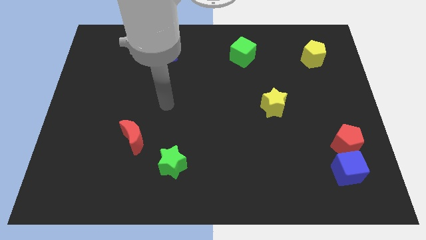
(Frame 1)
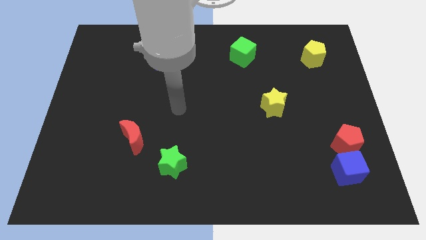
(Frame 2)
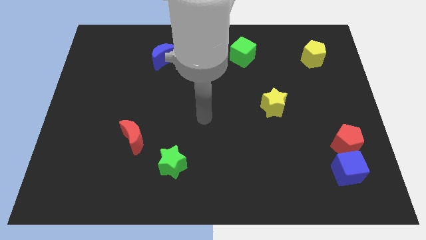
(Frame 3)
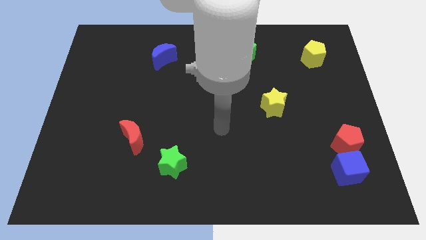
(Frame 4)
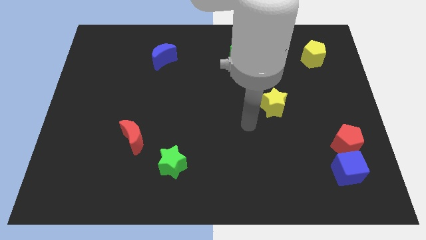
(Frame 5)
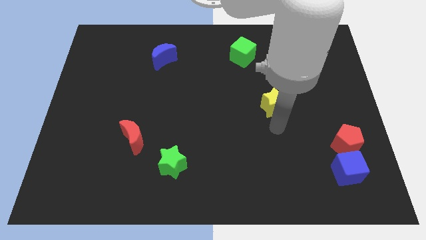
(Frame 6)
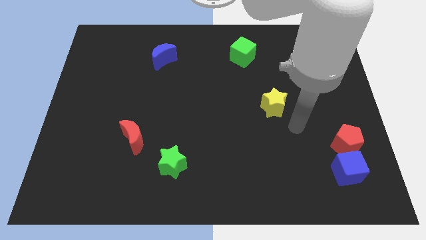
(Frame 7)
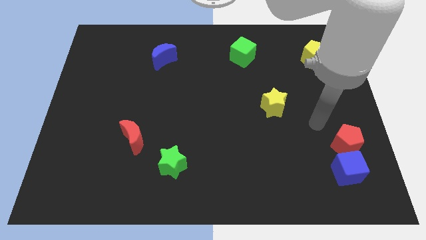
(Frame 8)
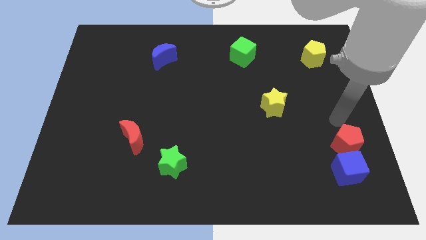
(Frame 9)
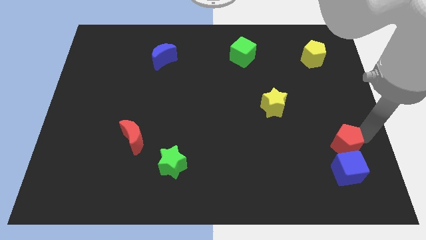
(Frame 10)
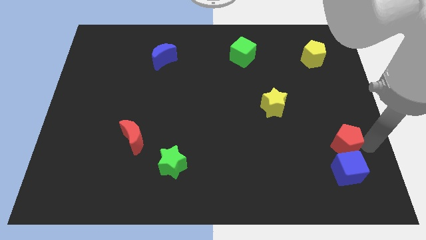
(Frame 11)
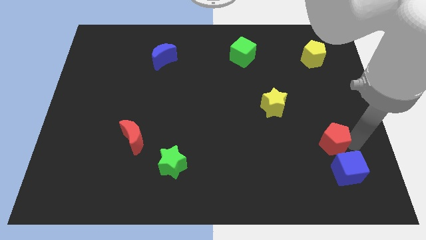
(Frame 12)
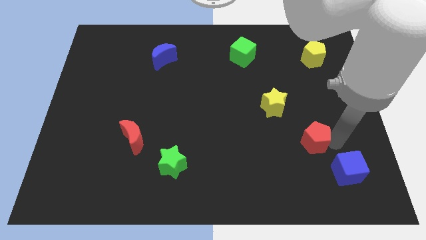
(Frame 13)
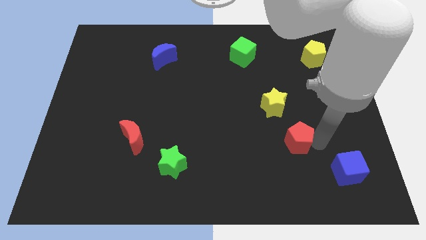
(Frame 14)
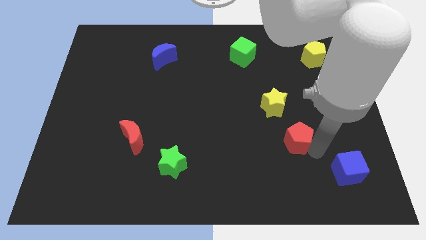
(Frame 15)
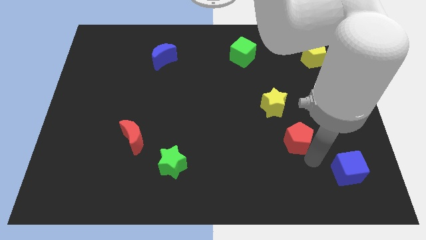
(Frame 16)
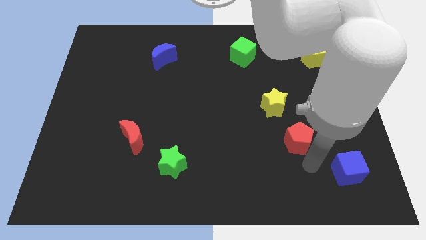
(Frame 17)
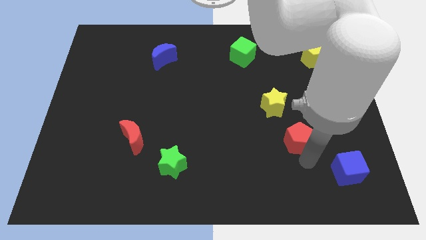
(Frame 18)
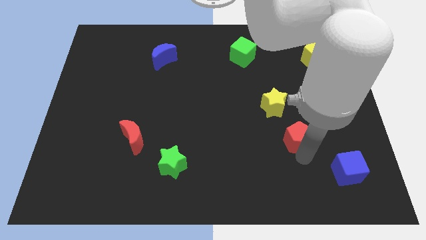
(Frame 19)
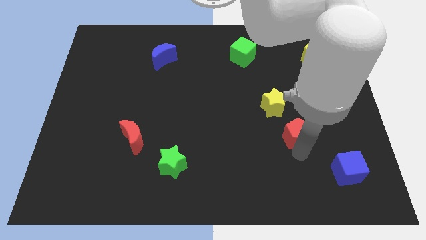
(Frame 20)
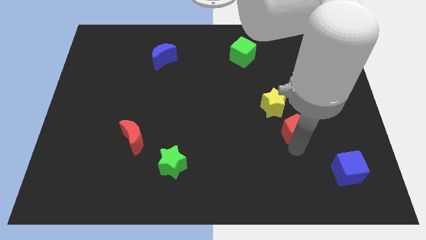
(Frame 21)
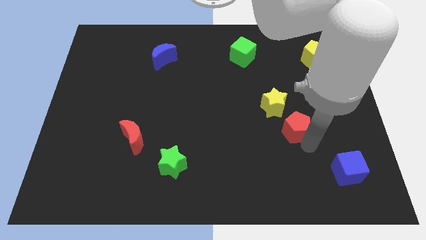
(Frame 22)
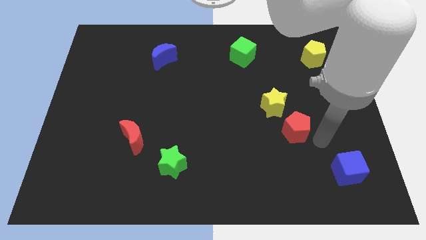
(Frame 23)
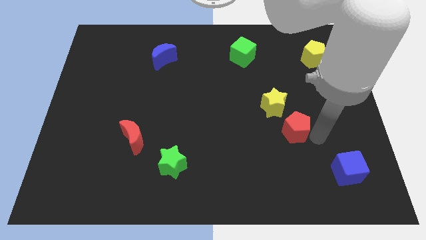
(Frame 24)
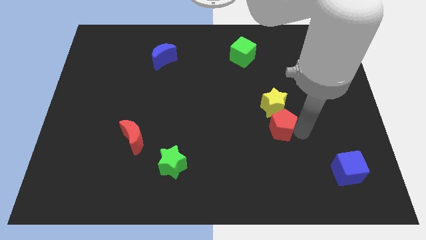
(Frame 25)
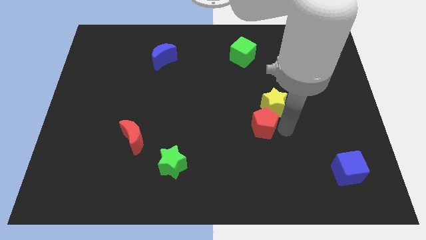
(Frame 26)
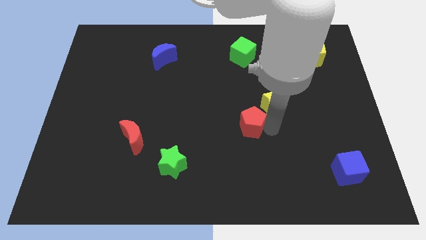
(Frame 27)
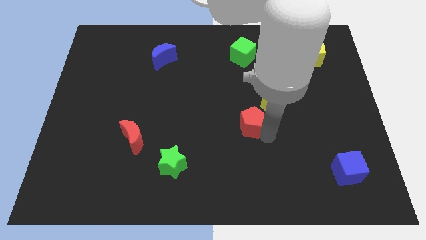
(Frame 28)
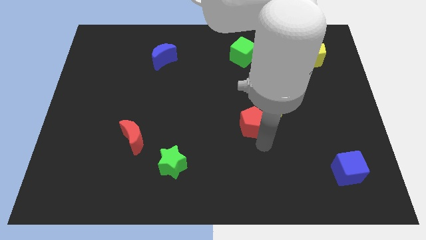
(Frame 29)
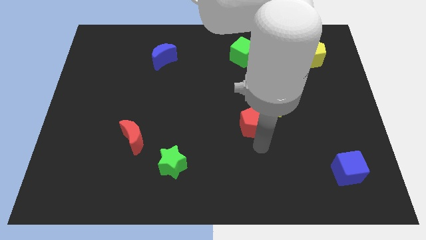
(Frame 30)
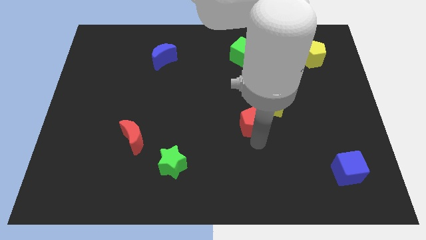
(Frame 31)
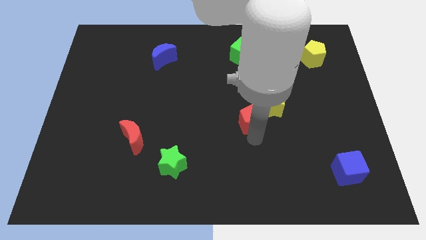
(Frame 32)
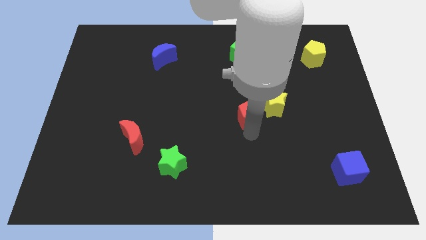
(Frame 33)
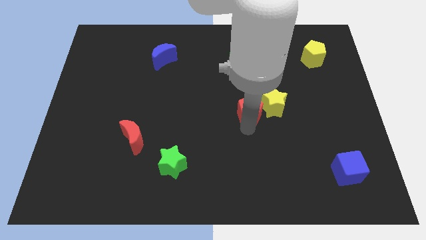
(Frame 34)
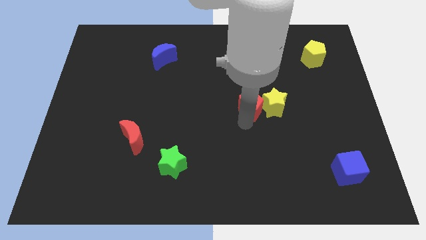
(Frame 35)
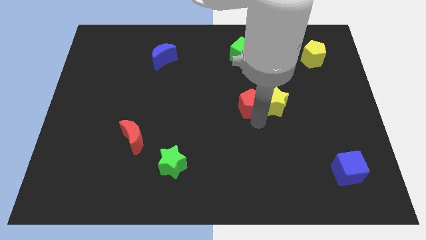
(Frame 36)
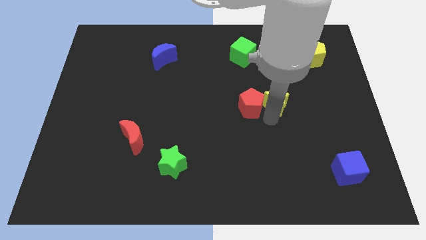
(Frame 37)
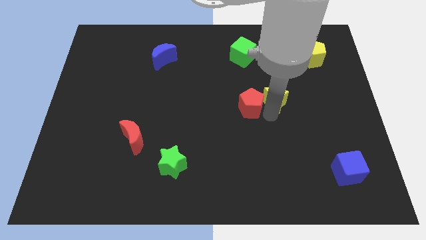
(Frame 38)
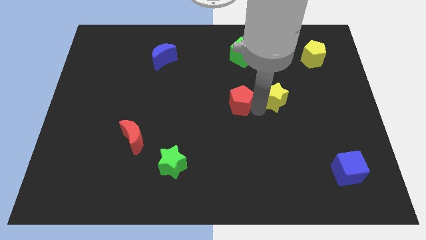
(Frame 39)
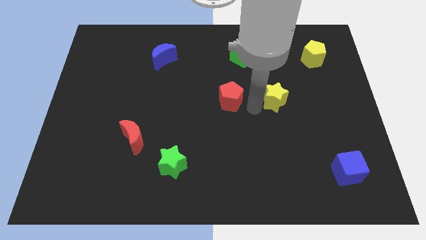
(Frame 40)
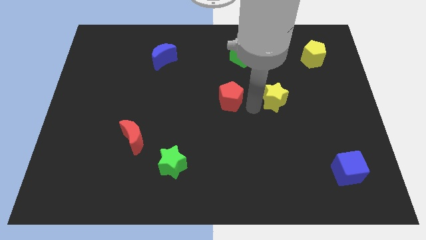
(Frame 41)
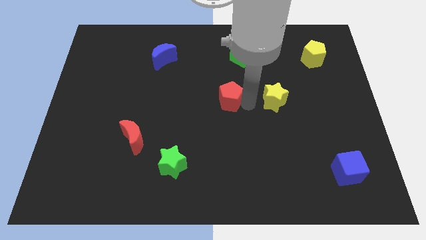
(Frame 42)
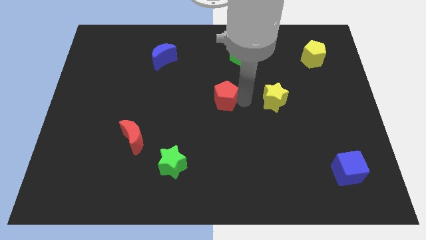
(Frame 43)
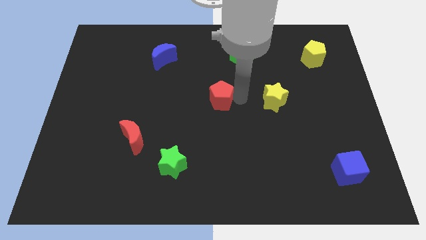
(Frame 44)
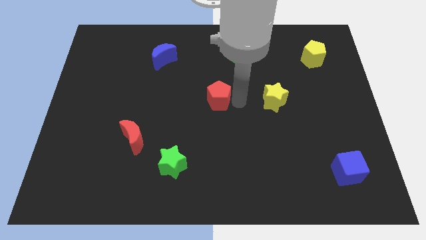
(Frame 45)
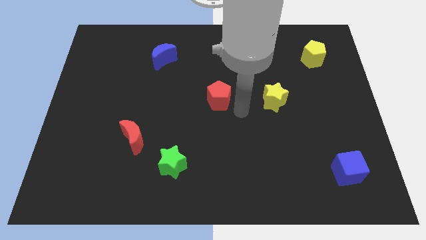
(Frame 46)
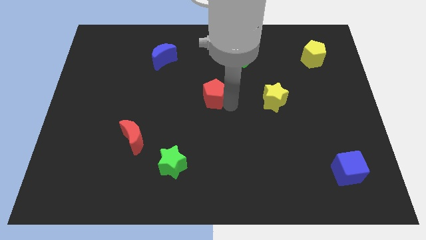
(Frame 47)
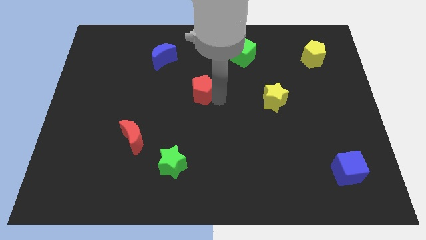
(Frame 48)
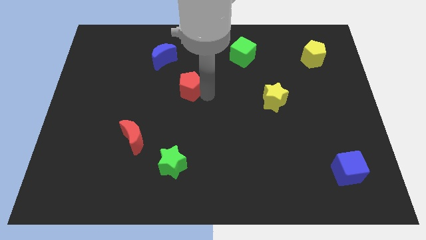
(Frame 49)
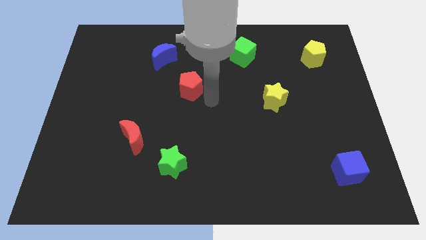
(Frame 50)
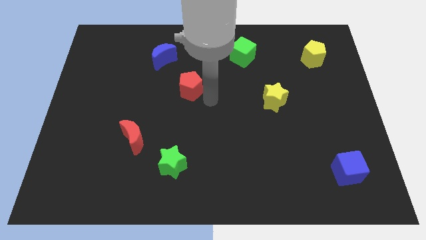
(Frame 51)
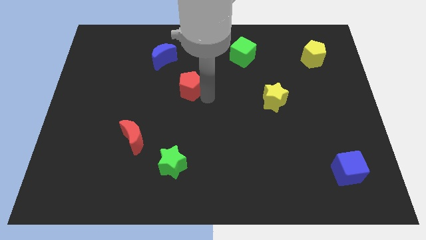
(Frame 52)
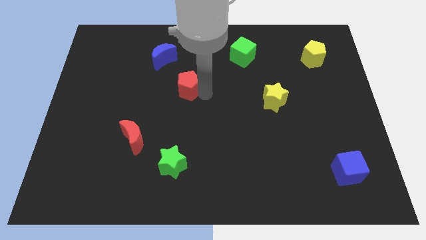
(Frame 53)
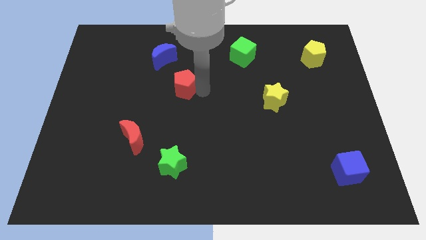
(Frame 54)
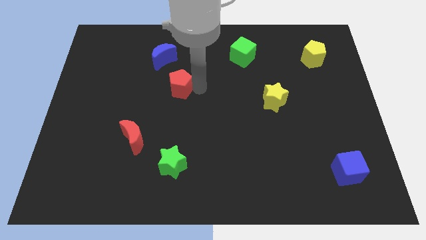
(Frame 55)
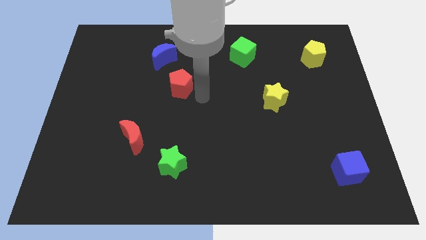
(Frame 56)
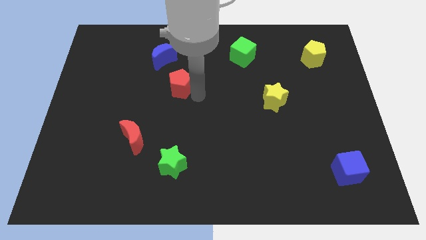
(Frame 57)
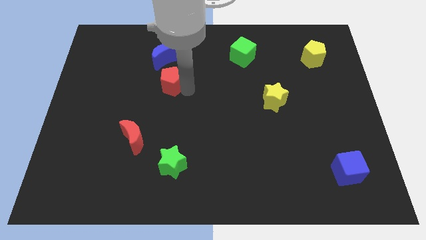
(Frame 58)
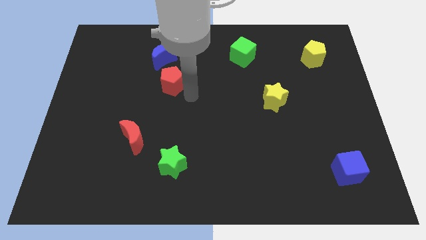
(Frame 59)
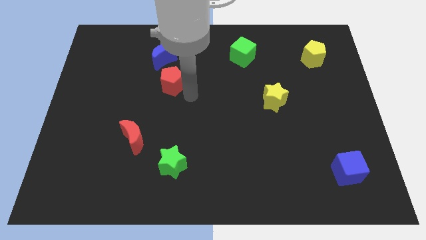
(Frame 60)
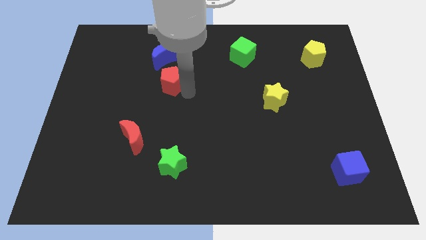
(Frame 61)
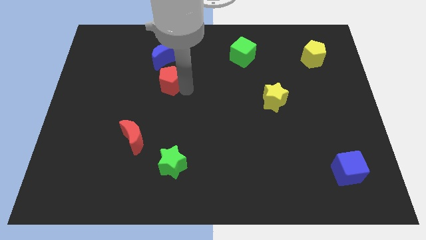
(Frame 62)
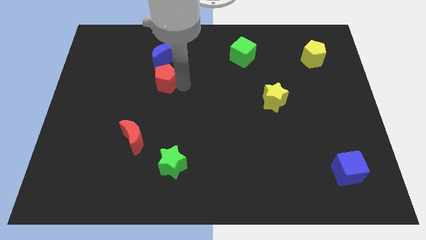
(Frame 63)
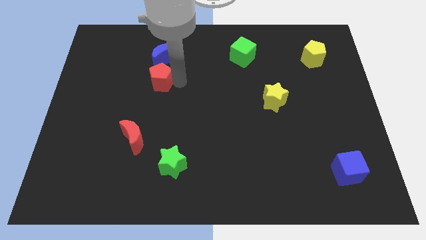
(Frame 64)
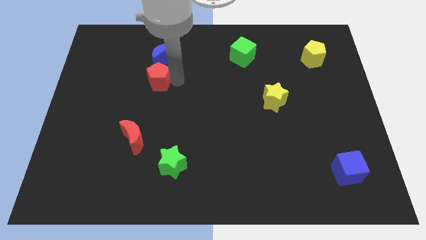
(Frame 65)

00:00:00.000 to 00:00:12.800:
move the red pentagon diagonally down and to the left of the blue moon
